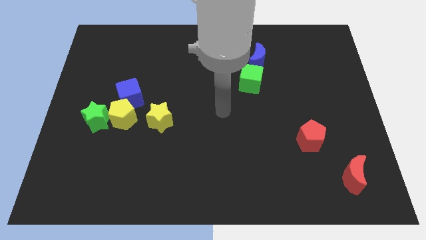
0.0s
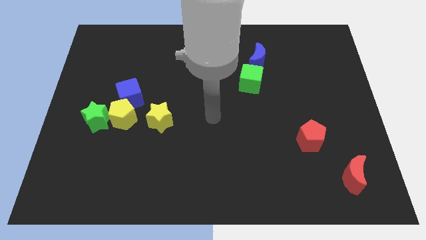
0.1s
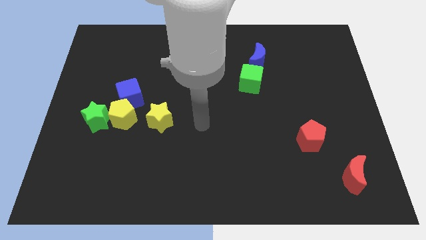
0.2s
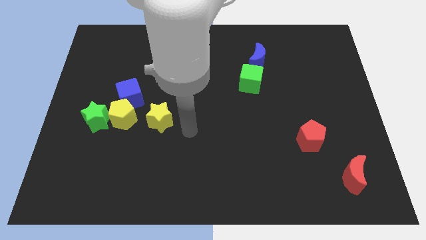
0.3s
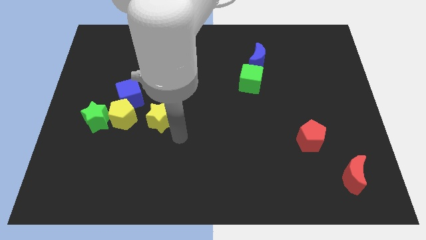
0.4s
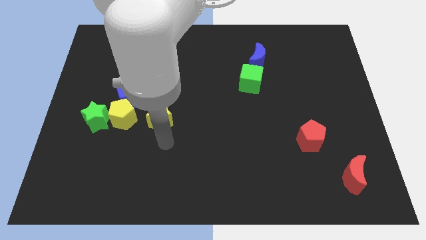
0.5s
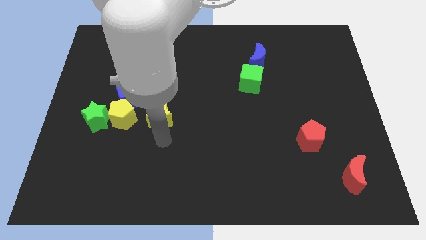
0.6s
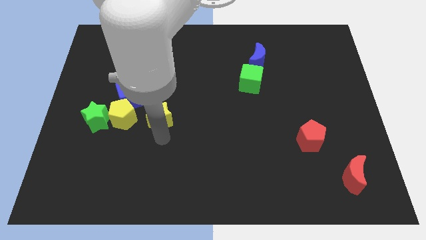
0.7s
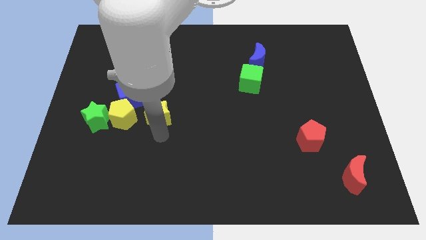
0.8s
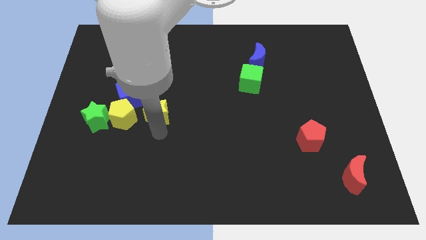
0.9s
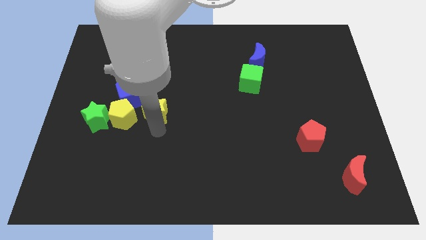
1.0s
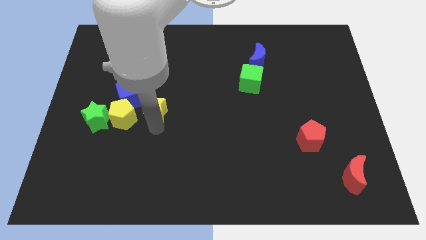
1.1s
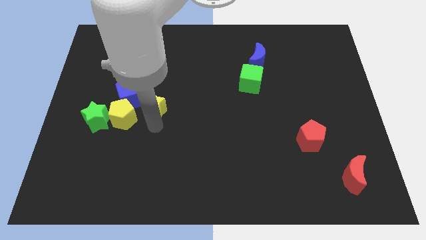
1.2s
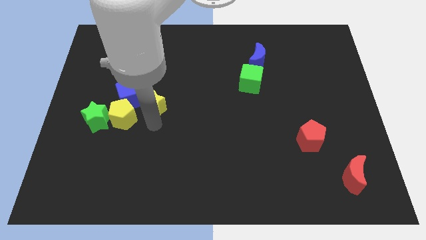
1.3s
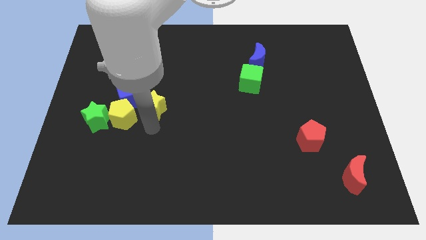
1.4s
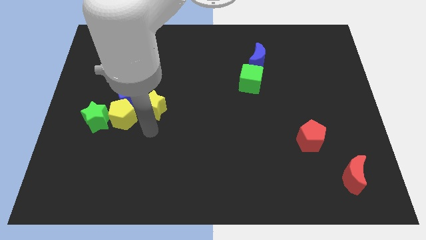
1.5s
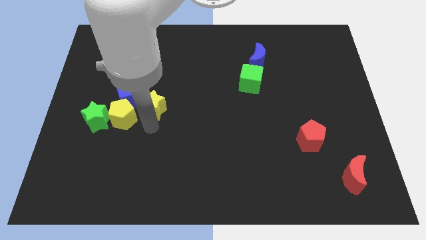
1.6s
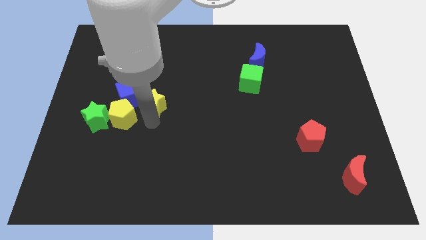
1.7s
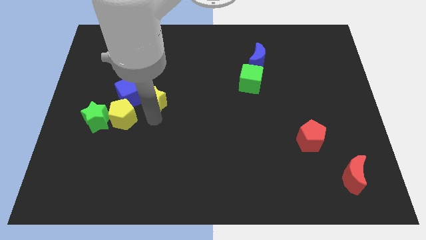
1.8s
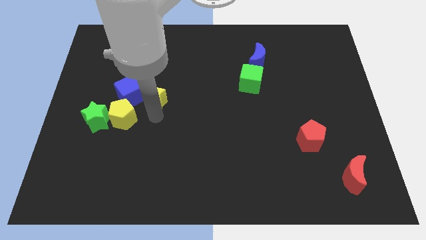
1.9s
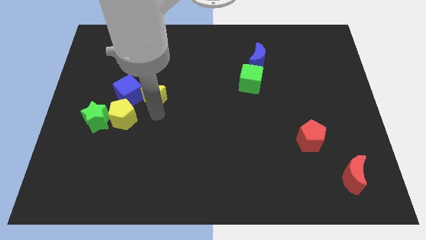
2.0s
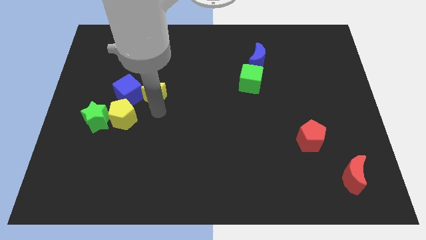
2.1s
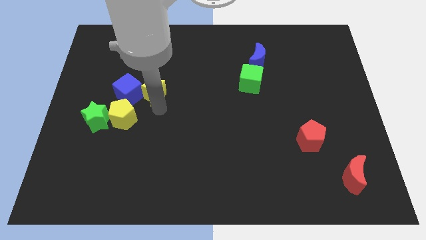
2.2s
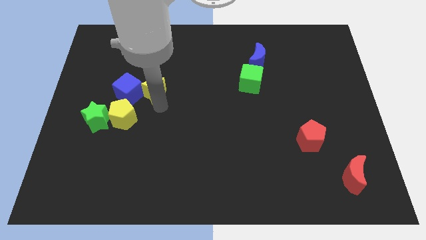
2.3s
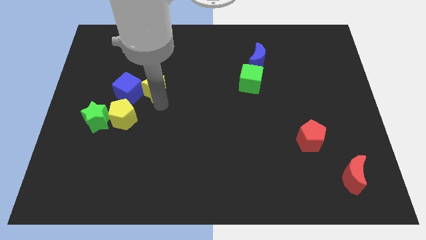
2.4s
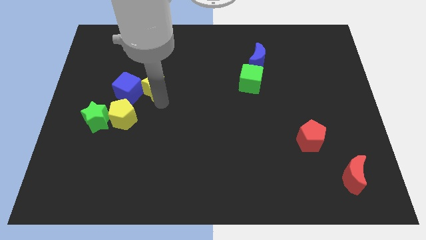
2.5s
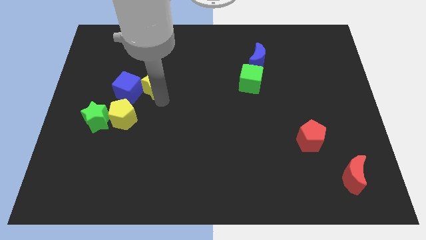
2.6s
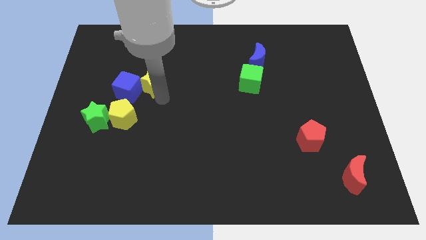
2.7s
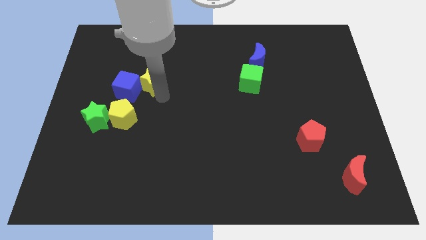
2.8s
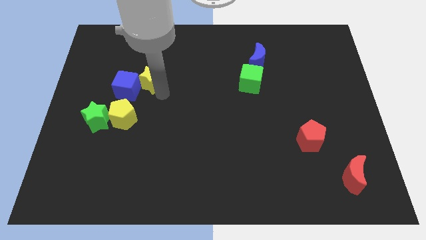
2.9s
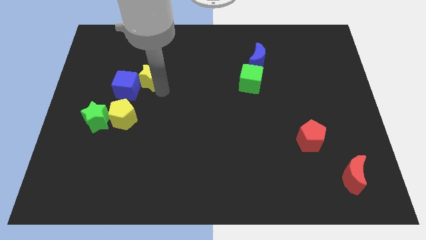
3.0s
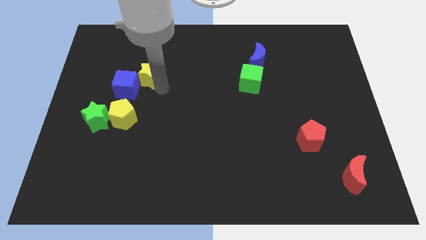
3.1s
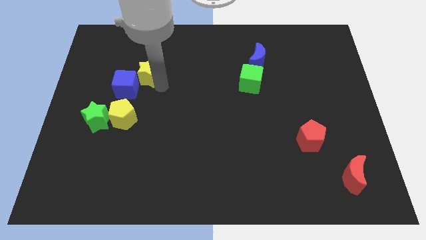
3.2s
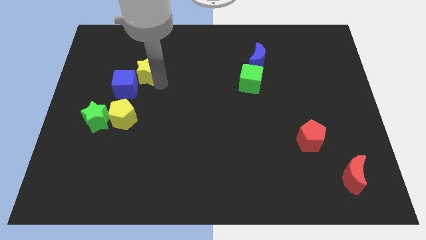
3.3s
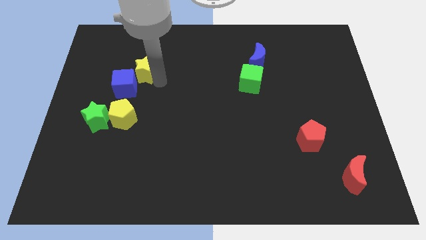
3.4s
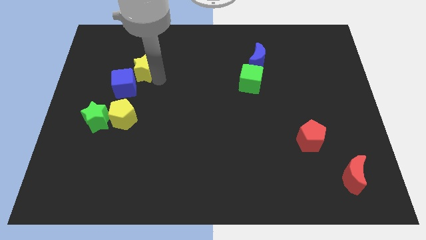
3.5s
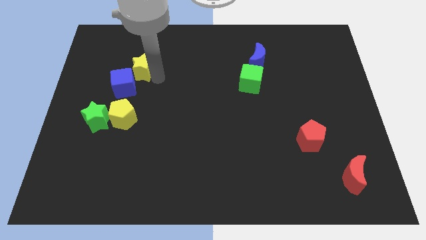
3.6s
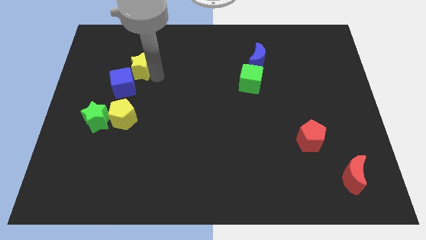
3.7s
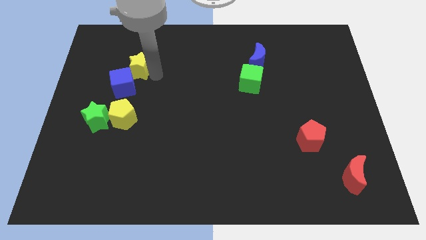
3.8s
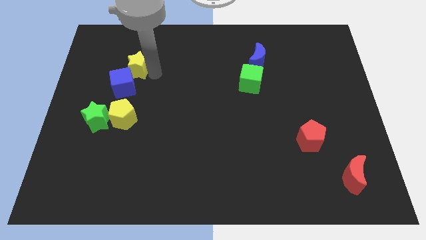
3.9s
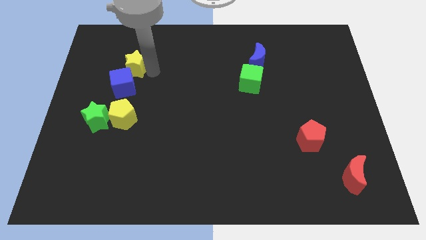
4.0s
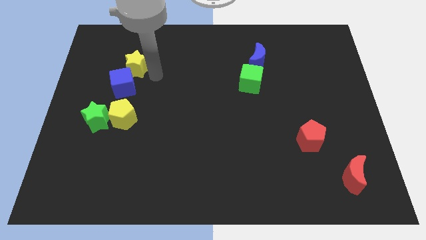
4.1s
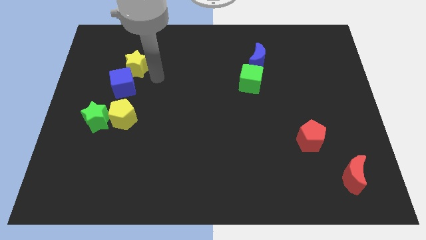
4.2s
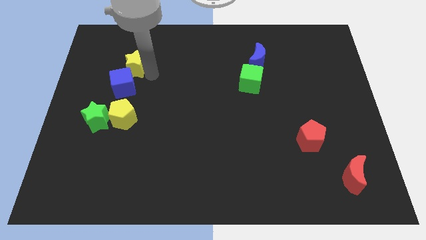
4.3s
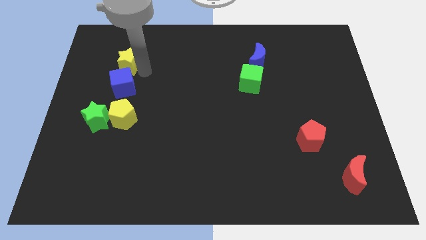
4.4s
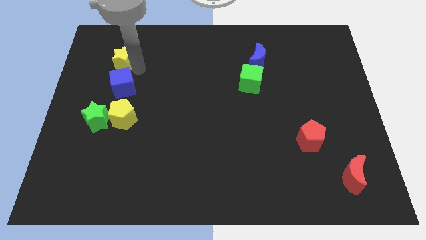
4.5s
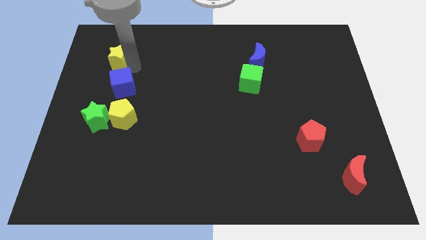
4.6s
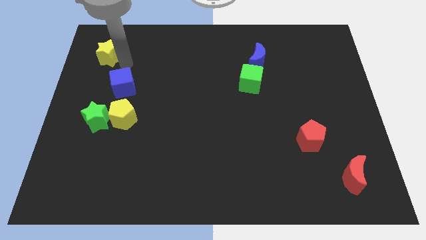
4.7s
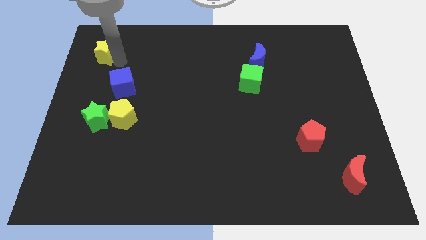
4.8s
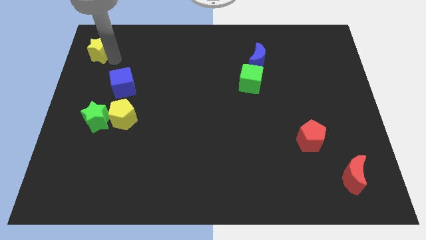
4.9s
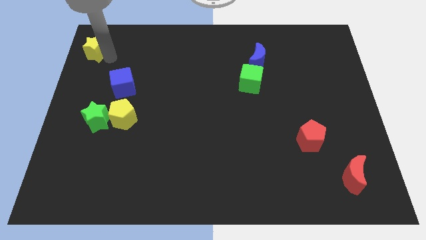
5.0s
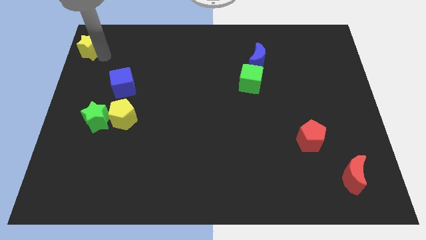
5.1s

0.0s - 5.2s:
slide the yellow star to the top left
